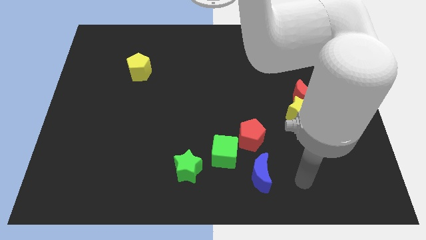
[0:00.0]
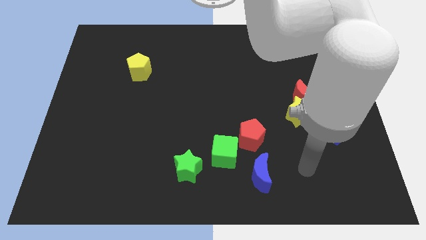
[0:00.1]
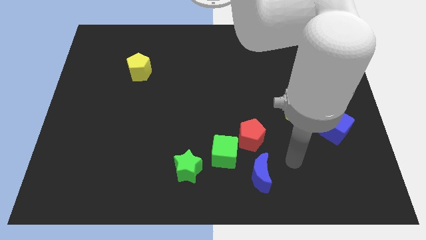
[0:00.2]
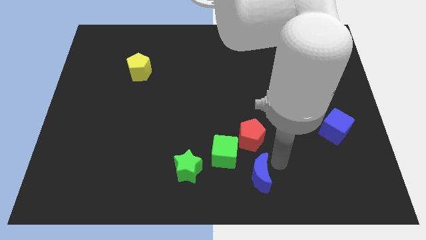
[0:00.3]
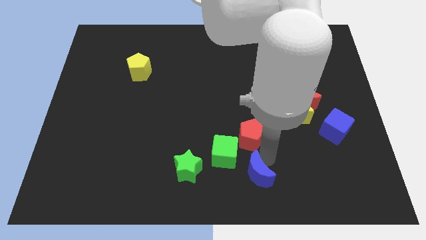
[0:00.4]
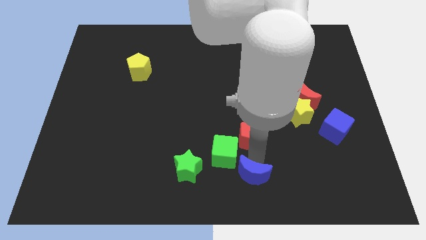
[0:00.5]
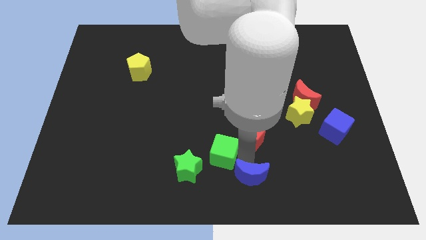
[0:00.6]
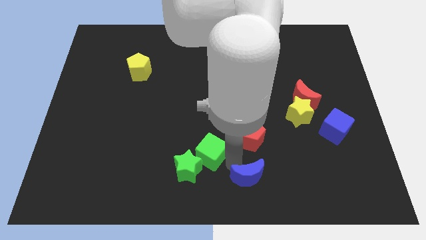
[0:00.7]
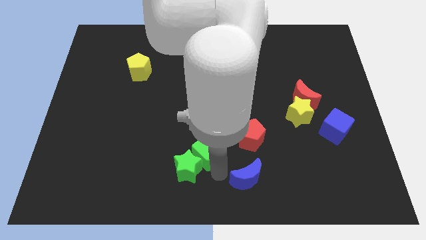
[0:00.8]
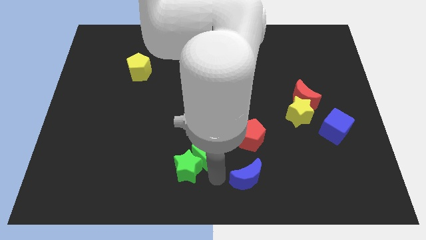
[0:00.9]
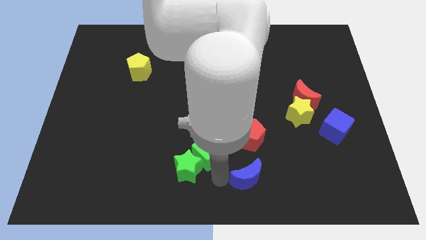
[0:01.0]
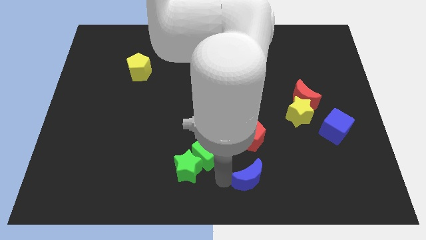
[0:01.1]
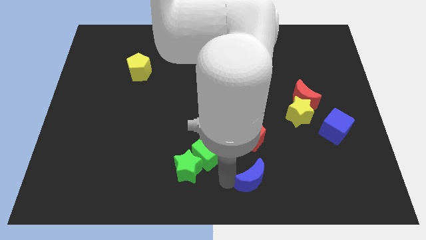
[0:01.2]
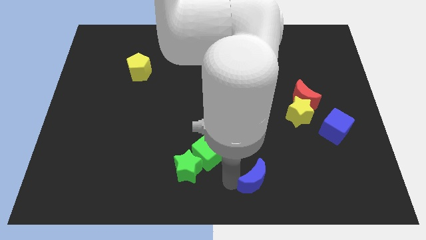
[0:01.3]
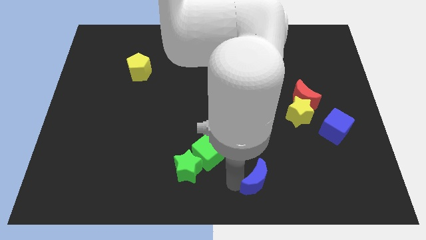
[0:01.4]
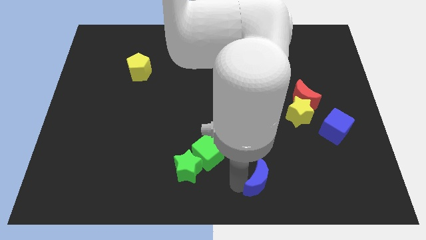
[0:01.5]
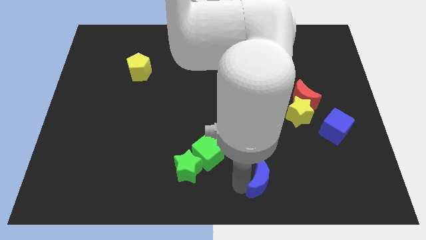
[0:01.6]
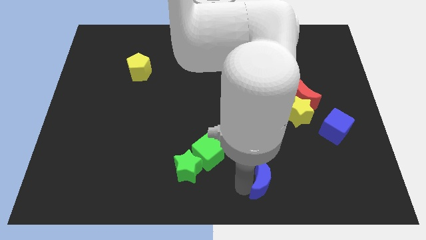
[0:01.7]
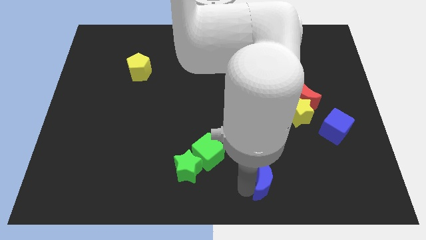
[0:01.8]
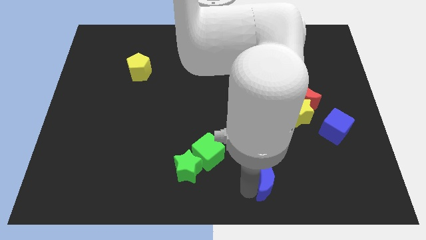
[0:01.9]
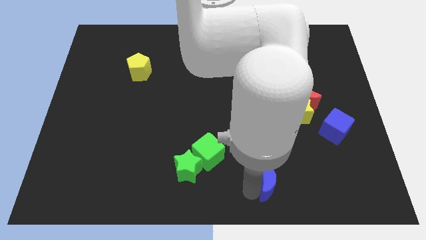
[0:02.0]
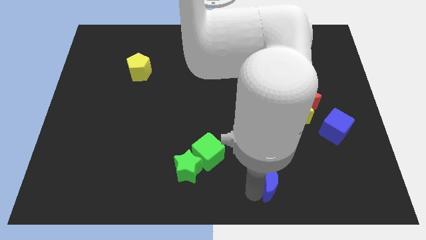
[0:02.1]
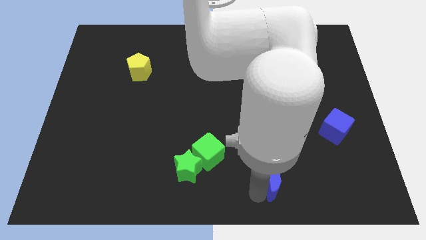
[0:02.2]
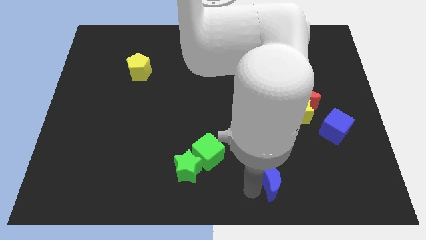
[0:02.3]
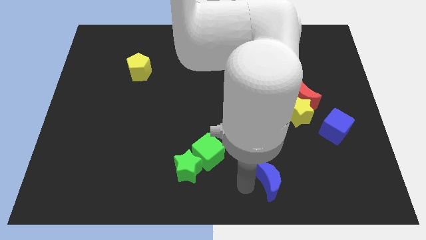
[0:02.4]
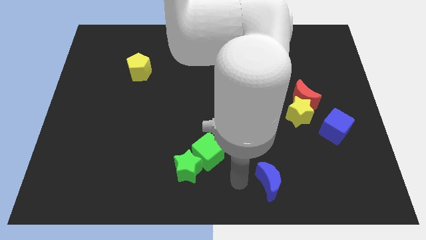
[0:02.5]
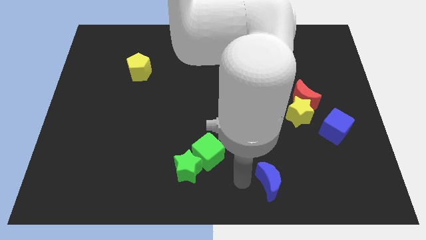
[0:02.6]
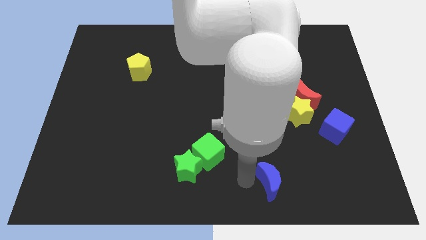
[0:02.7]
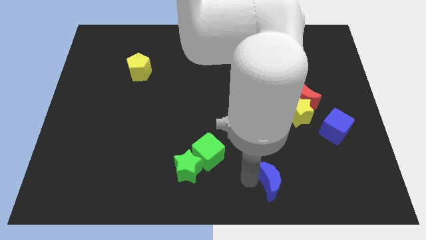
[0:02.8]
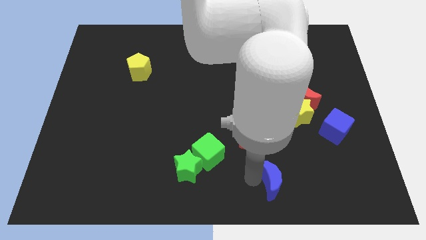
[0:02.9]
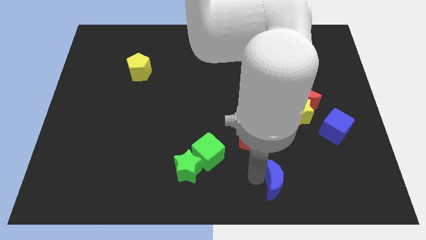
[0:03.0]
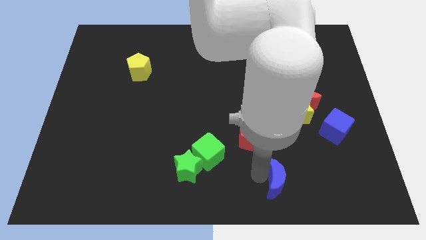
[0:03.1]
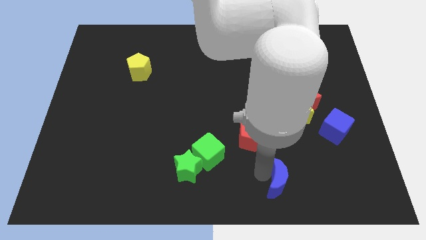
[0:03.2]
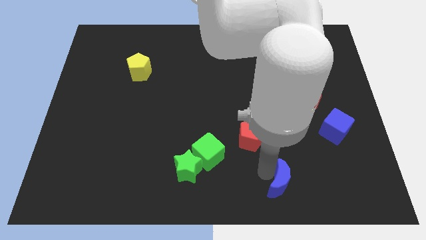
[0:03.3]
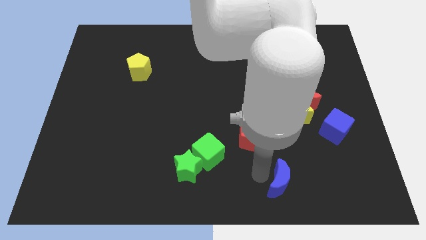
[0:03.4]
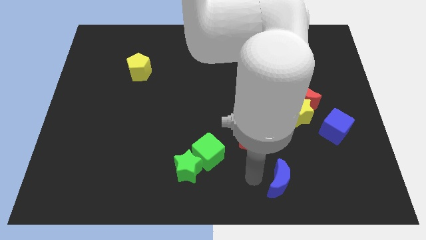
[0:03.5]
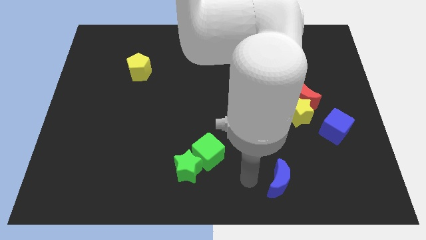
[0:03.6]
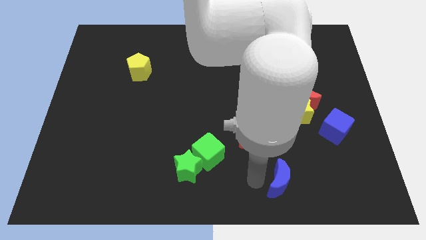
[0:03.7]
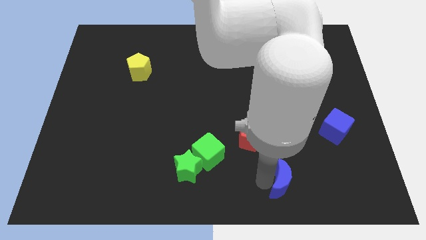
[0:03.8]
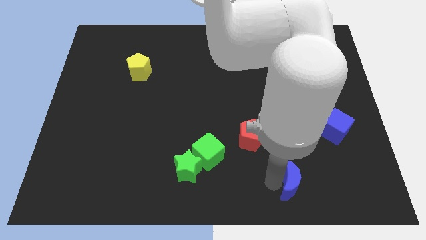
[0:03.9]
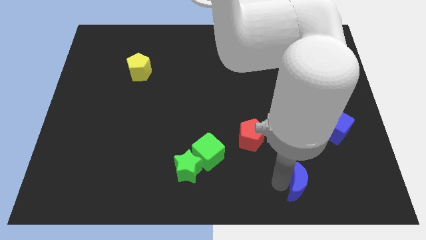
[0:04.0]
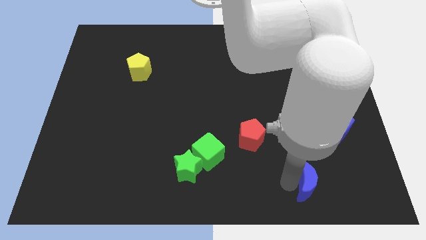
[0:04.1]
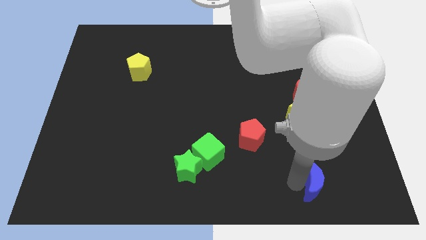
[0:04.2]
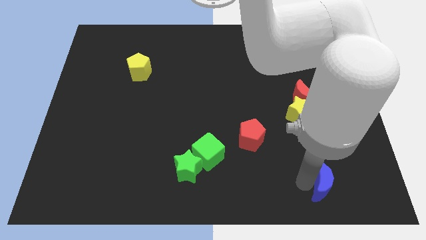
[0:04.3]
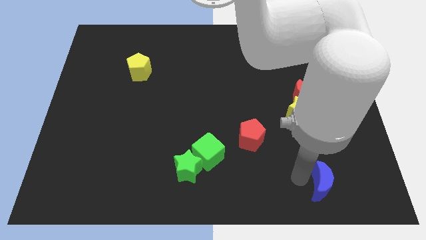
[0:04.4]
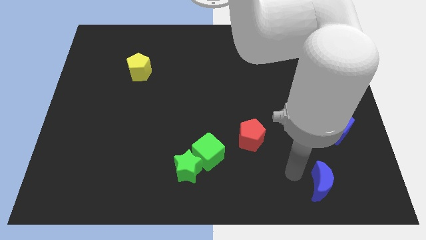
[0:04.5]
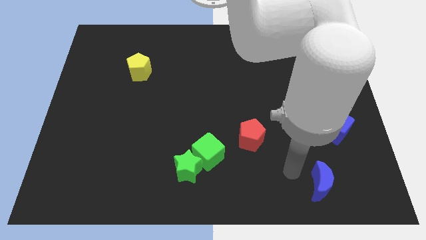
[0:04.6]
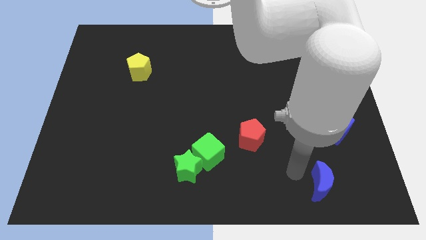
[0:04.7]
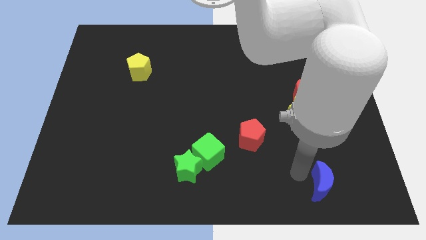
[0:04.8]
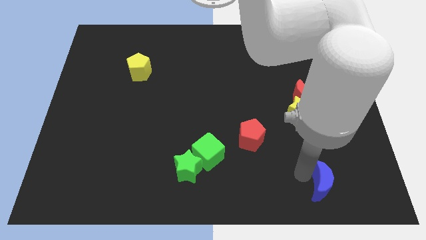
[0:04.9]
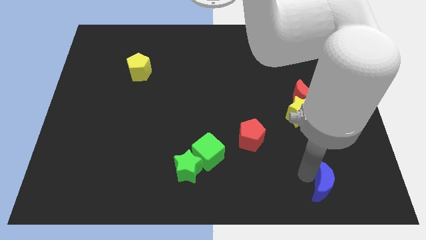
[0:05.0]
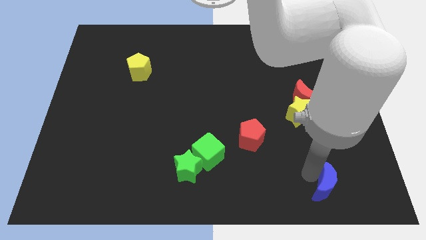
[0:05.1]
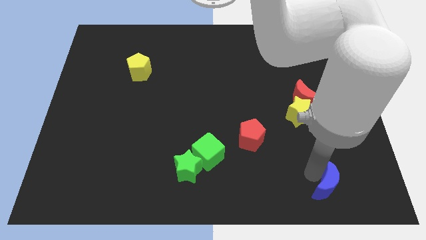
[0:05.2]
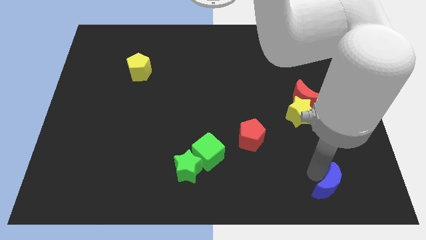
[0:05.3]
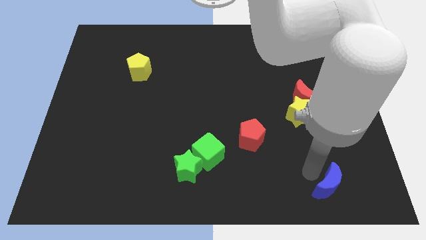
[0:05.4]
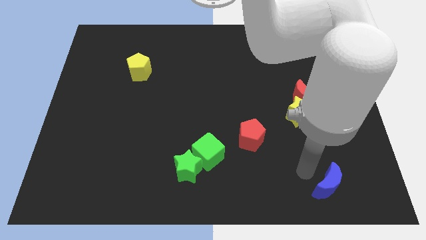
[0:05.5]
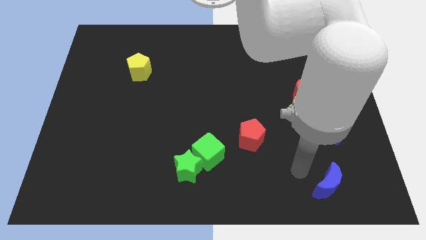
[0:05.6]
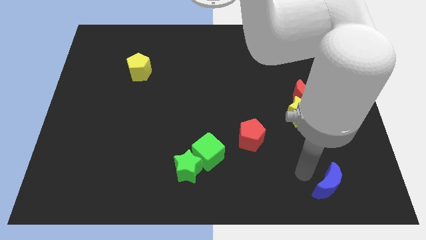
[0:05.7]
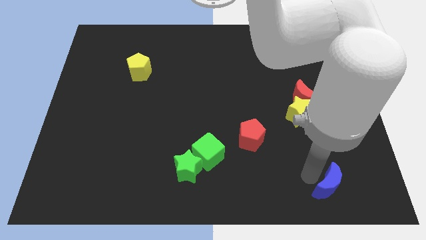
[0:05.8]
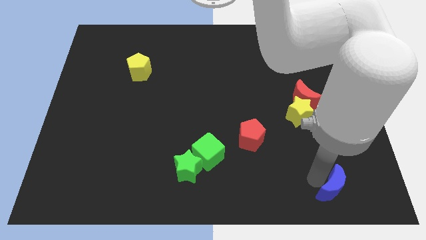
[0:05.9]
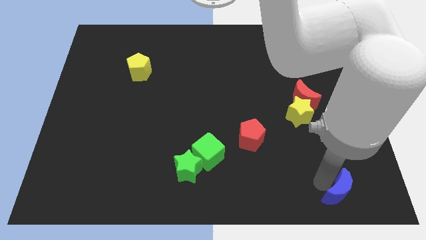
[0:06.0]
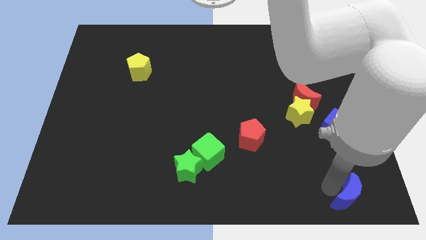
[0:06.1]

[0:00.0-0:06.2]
move the blue moon to the bottom right

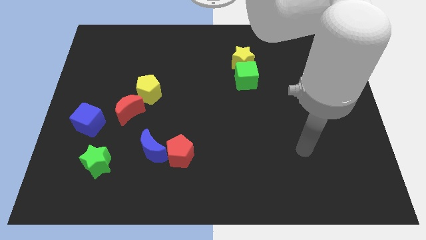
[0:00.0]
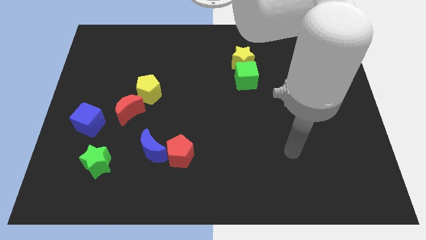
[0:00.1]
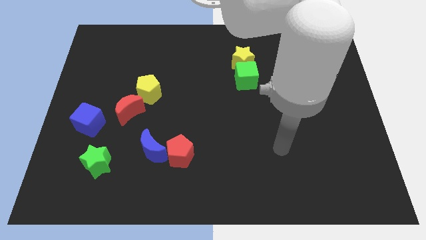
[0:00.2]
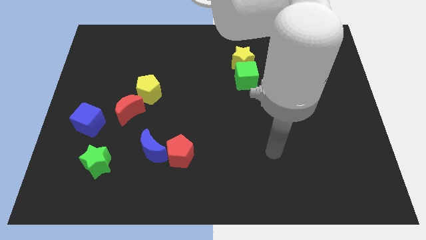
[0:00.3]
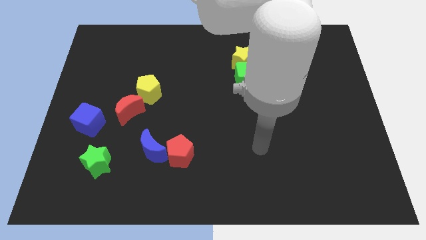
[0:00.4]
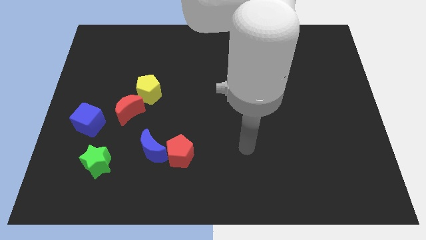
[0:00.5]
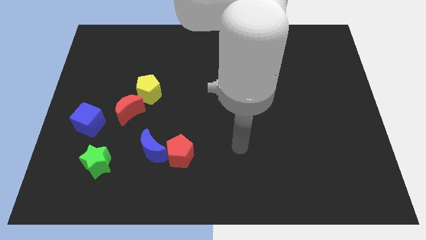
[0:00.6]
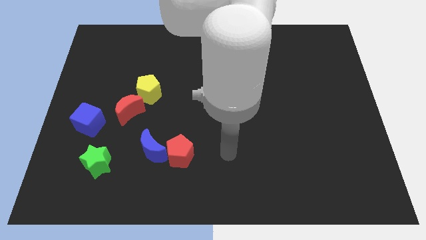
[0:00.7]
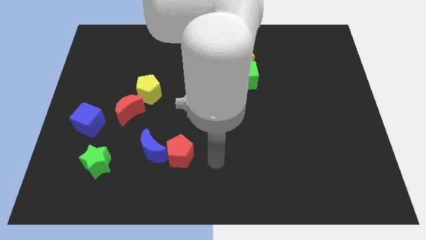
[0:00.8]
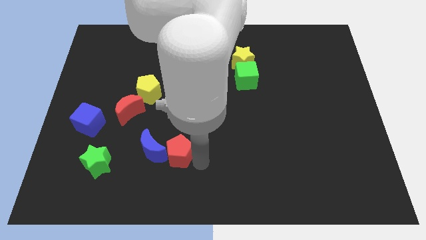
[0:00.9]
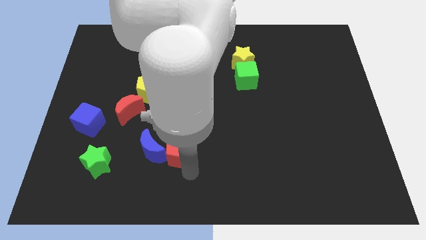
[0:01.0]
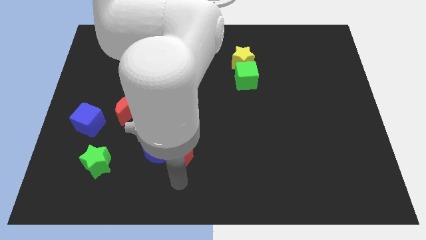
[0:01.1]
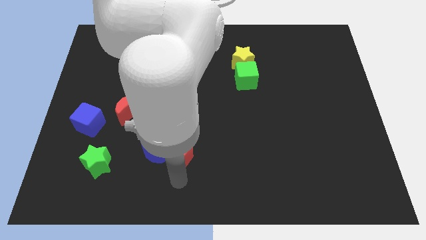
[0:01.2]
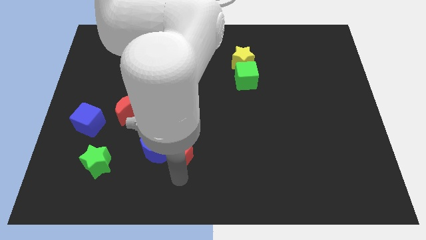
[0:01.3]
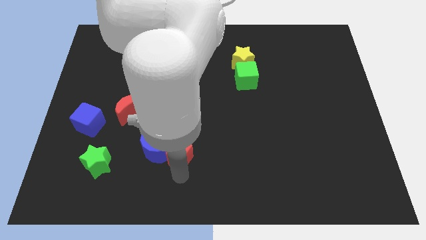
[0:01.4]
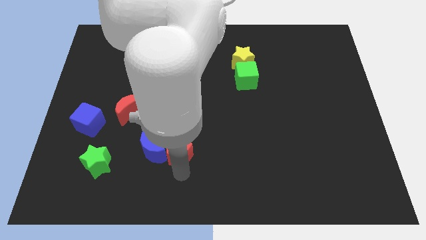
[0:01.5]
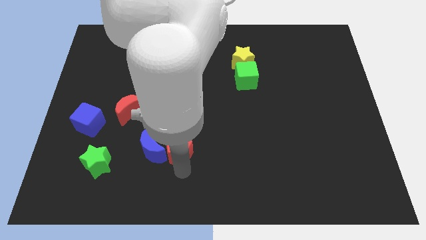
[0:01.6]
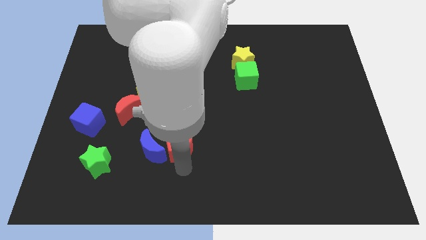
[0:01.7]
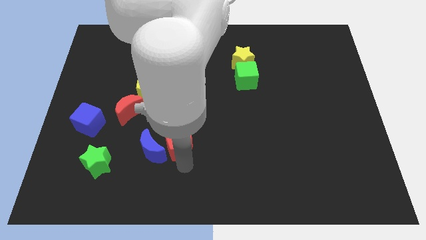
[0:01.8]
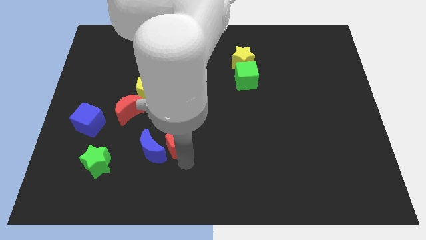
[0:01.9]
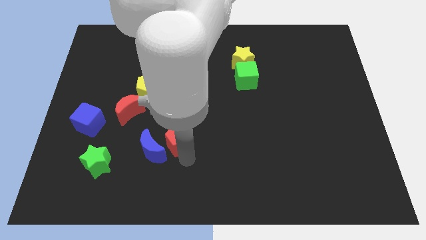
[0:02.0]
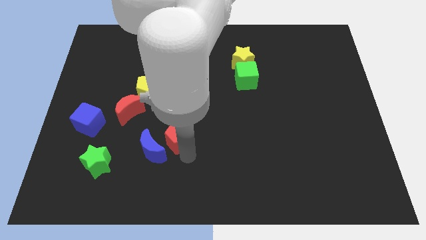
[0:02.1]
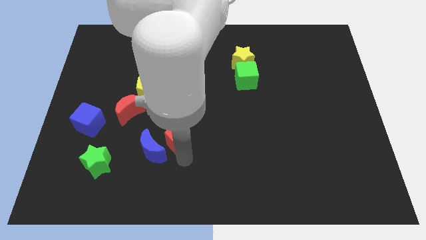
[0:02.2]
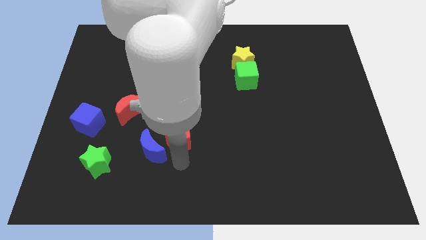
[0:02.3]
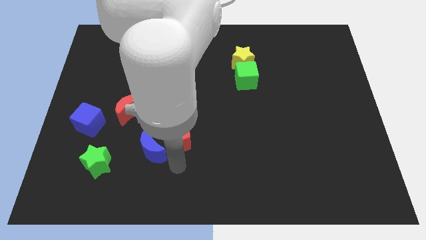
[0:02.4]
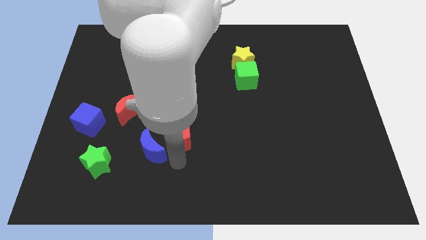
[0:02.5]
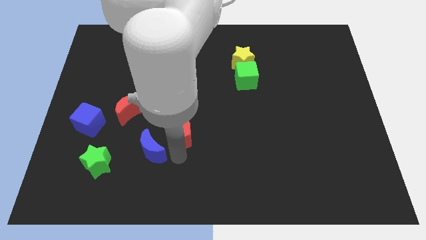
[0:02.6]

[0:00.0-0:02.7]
slide the red pentagon to the center
